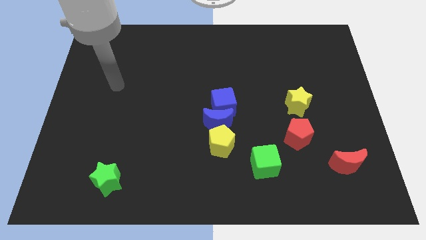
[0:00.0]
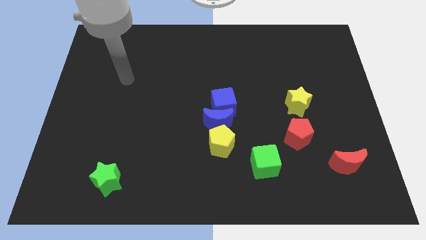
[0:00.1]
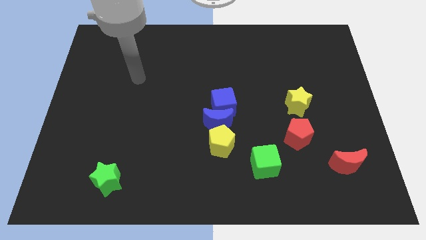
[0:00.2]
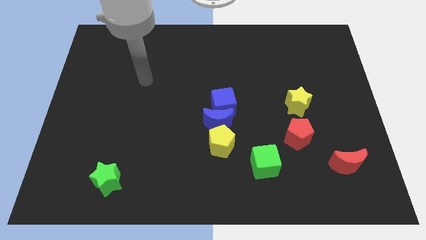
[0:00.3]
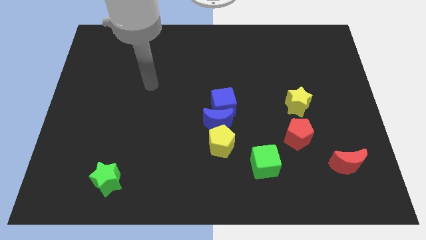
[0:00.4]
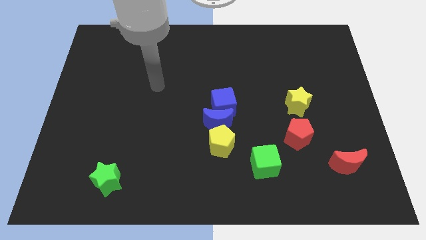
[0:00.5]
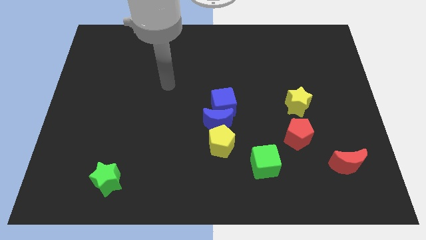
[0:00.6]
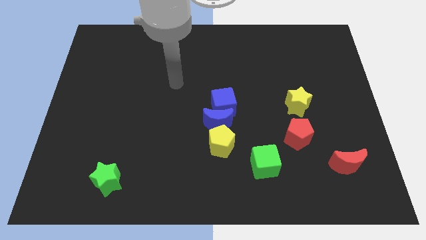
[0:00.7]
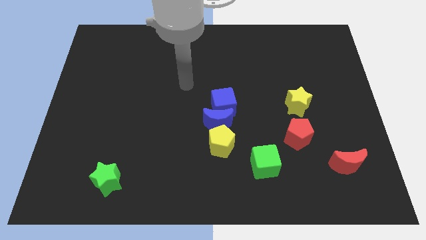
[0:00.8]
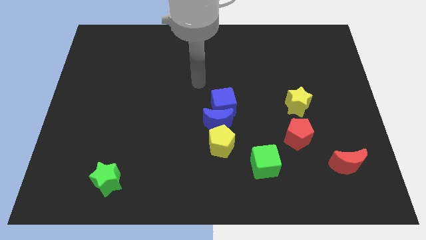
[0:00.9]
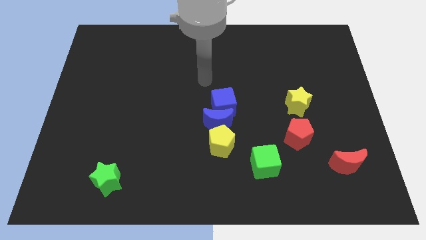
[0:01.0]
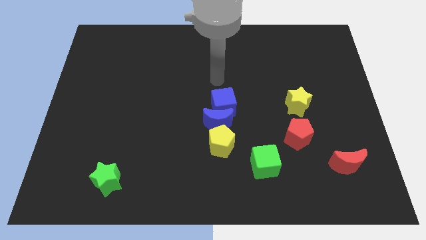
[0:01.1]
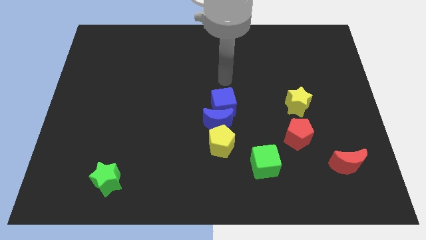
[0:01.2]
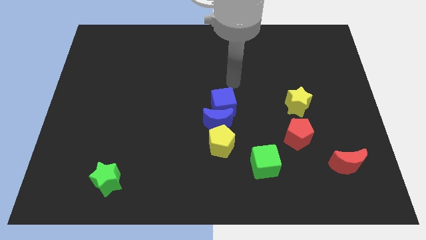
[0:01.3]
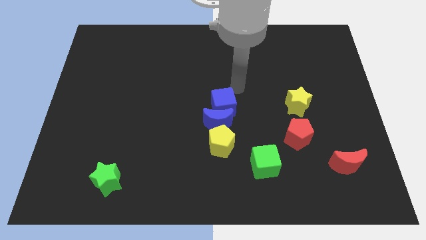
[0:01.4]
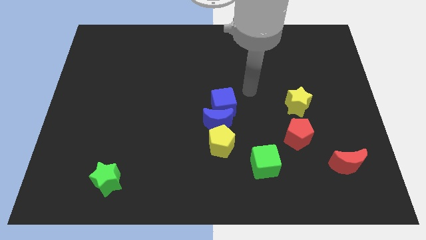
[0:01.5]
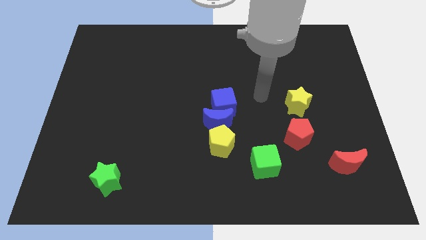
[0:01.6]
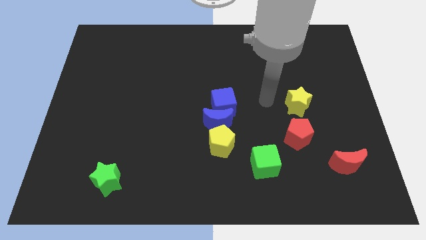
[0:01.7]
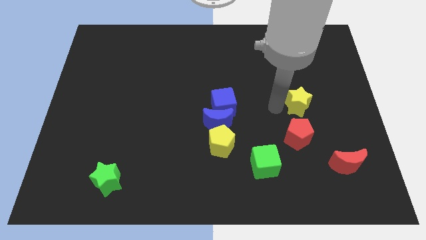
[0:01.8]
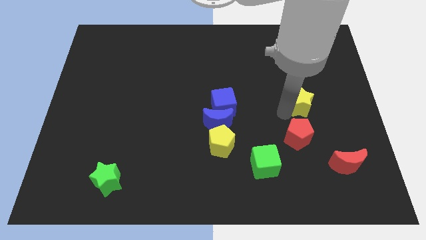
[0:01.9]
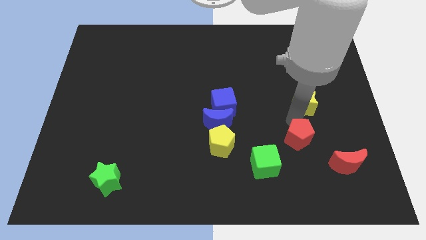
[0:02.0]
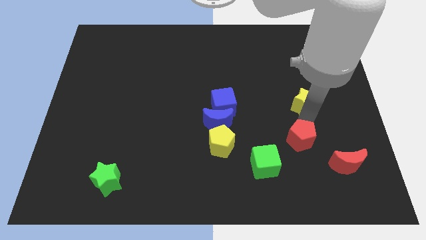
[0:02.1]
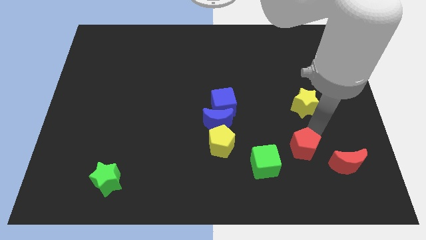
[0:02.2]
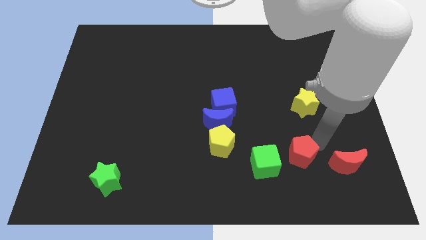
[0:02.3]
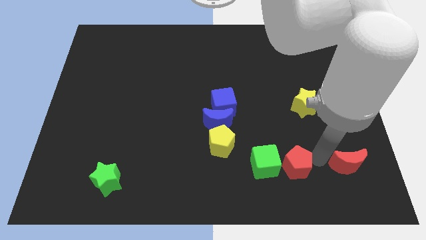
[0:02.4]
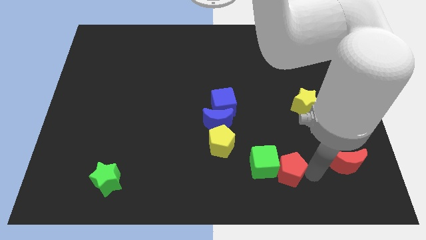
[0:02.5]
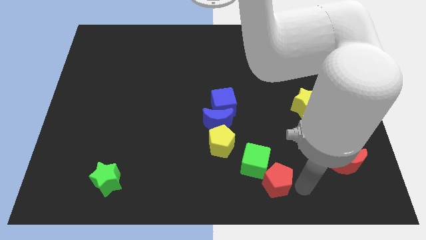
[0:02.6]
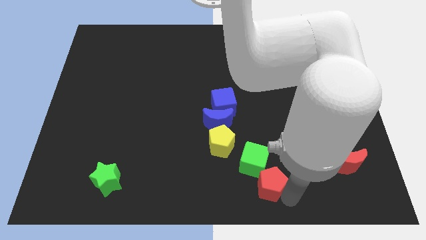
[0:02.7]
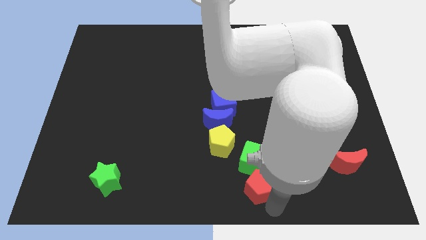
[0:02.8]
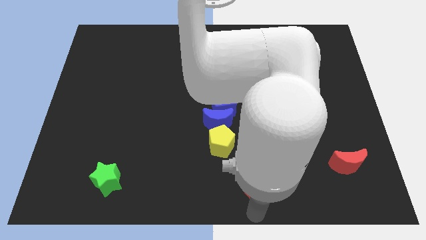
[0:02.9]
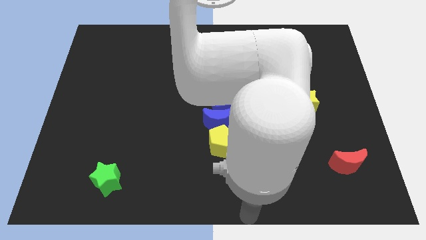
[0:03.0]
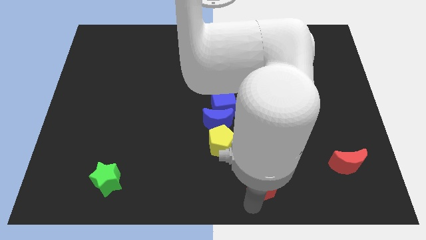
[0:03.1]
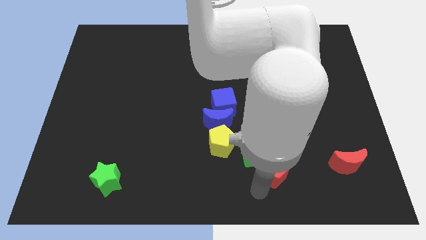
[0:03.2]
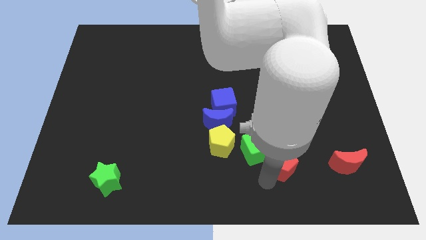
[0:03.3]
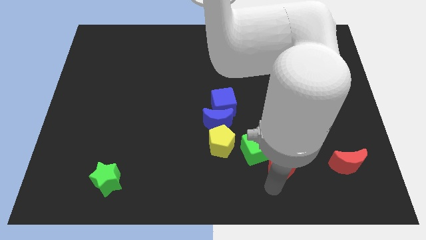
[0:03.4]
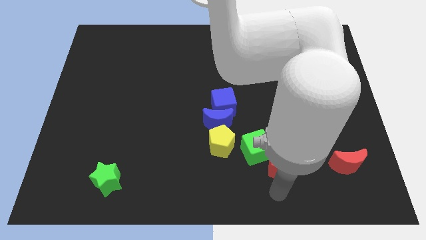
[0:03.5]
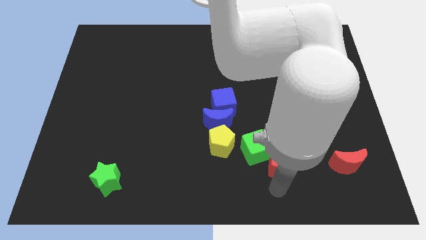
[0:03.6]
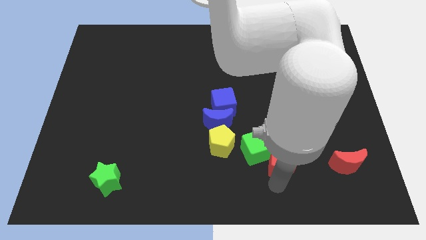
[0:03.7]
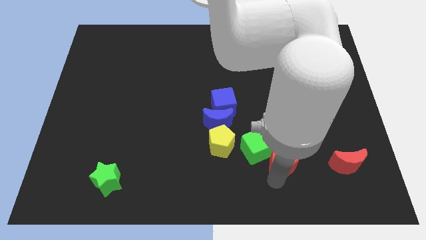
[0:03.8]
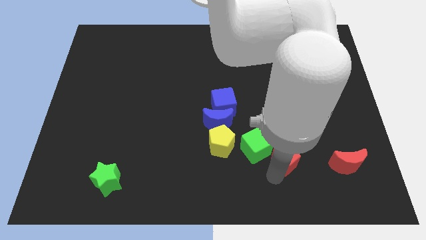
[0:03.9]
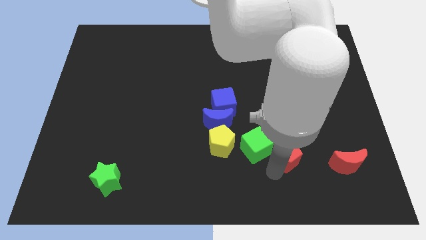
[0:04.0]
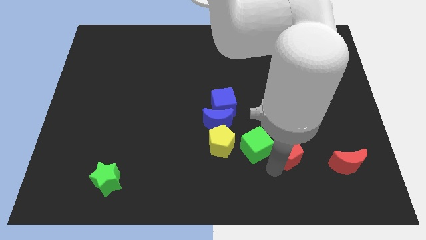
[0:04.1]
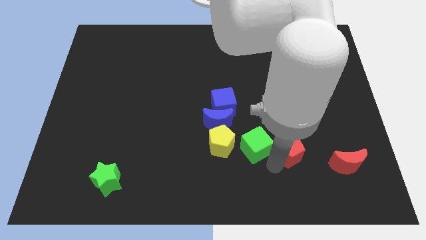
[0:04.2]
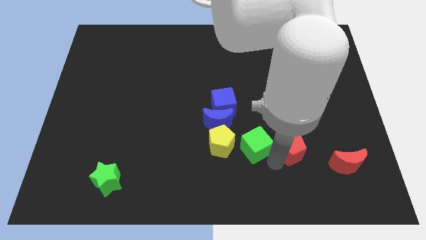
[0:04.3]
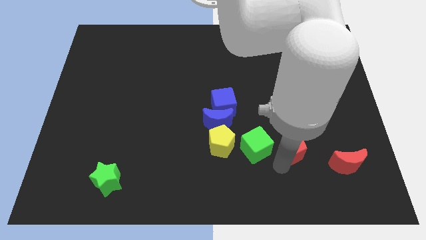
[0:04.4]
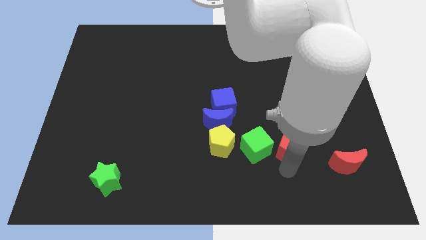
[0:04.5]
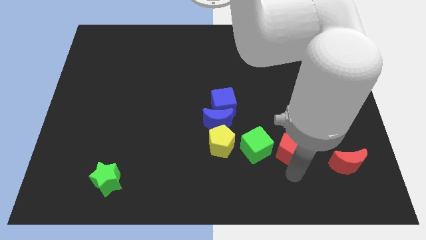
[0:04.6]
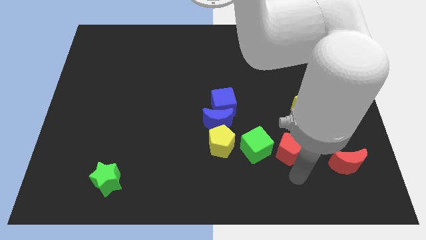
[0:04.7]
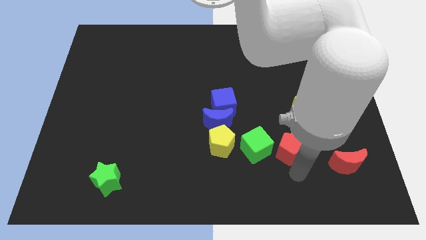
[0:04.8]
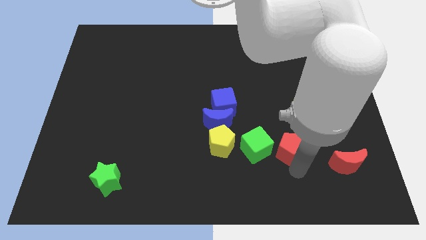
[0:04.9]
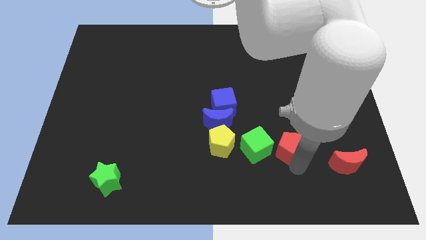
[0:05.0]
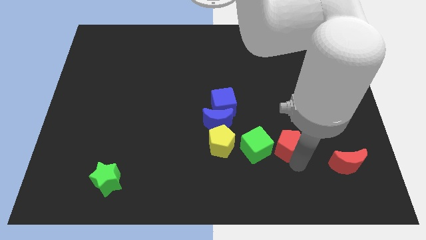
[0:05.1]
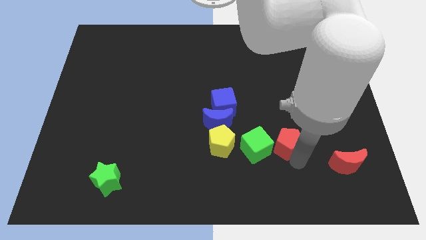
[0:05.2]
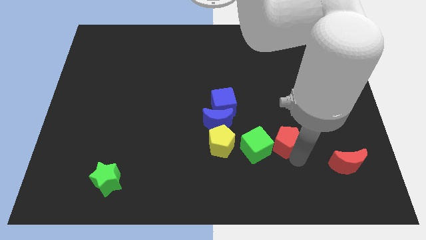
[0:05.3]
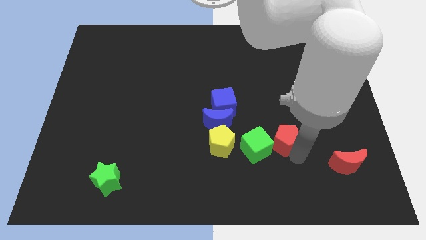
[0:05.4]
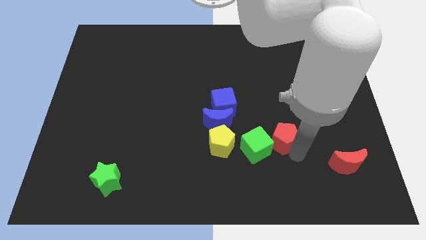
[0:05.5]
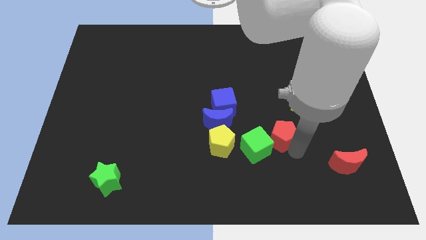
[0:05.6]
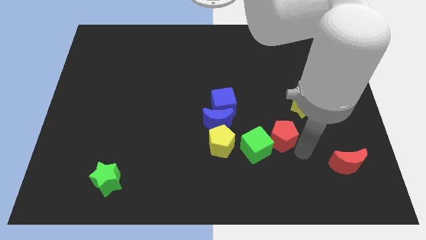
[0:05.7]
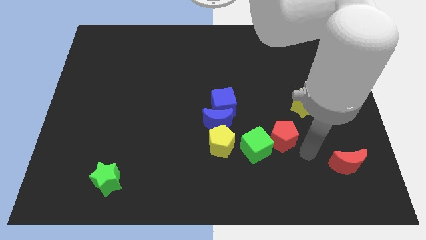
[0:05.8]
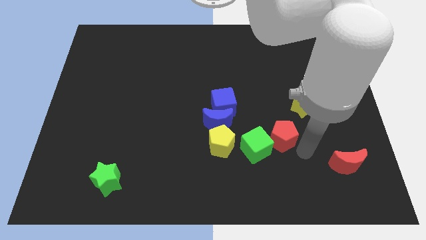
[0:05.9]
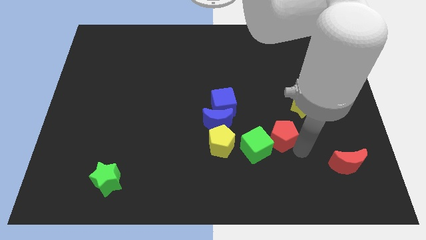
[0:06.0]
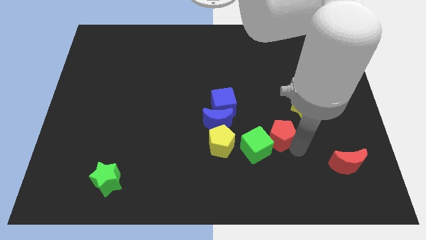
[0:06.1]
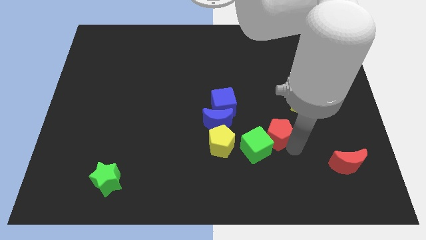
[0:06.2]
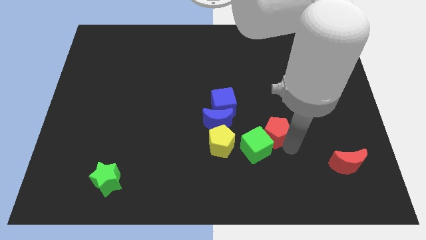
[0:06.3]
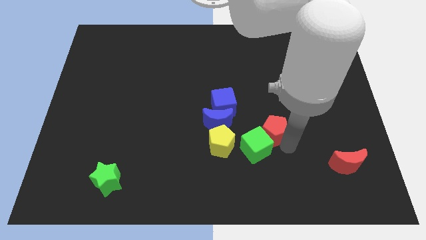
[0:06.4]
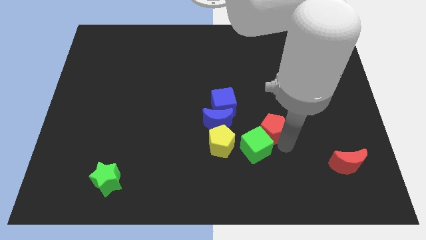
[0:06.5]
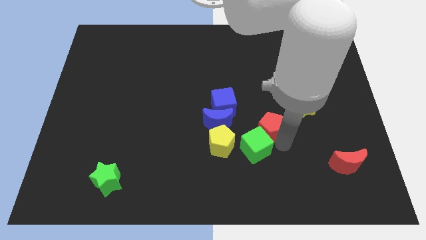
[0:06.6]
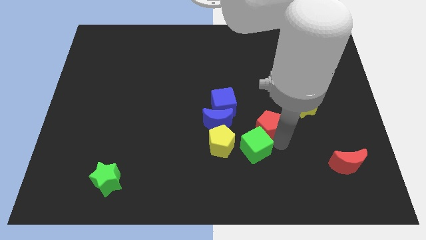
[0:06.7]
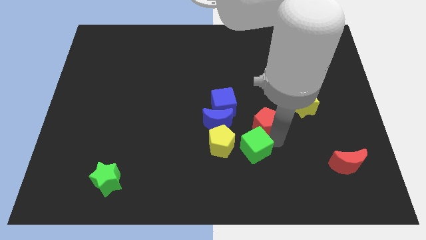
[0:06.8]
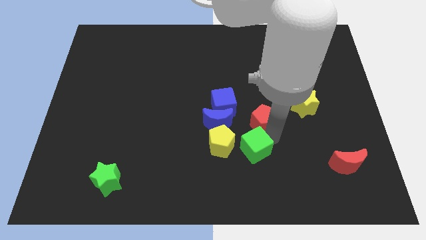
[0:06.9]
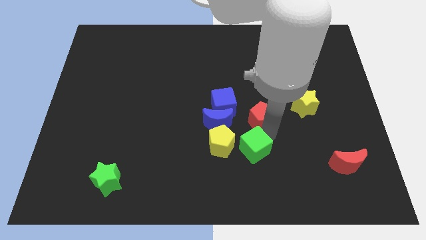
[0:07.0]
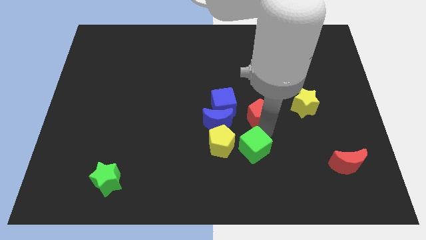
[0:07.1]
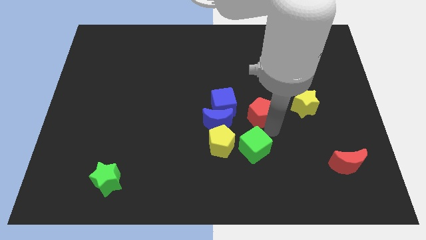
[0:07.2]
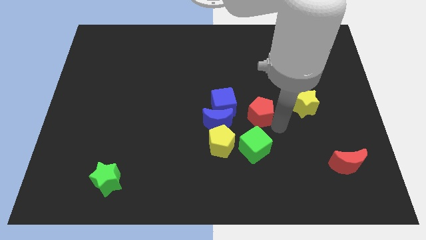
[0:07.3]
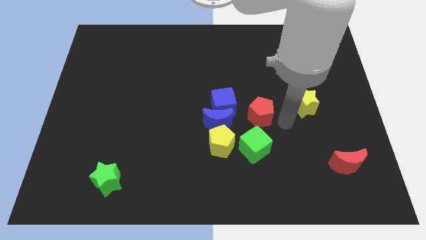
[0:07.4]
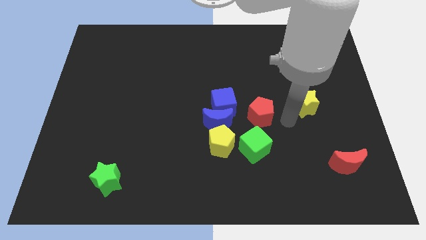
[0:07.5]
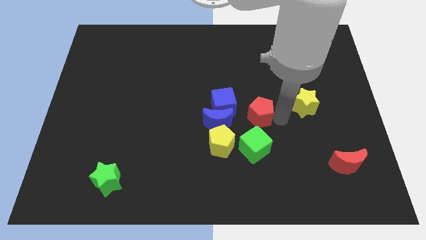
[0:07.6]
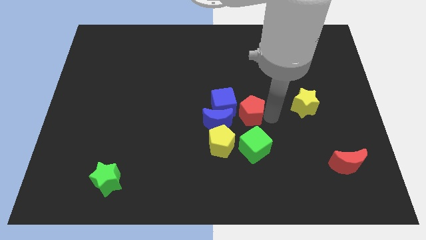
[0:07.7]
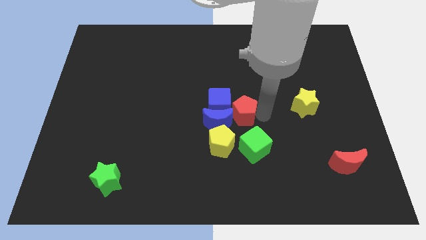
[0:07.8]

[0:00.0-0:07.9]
move the red pentagon to the blue cube
